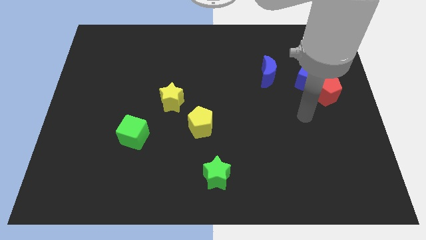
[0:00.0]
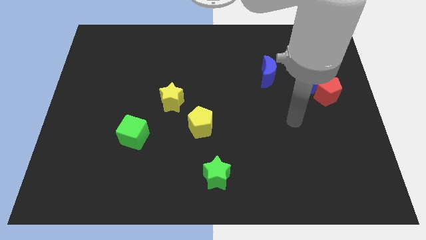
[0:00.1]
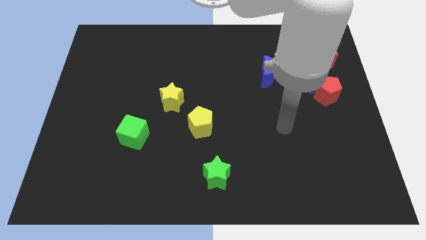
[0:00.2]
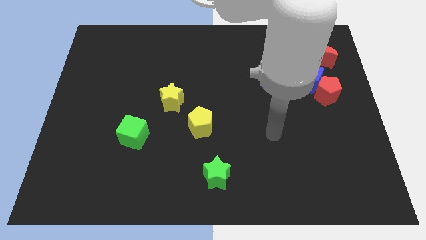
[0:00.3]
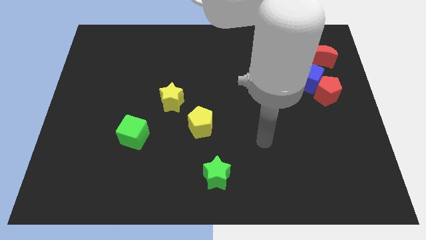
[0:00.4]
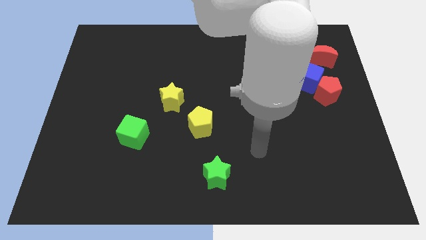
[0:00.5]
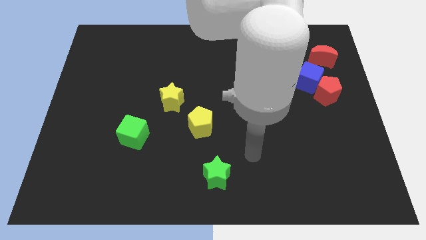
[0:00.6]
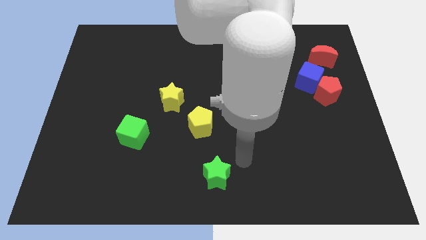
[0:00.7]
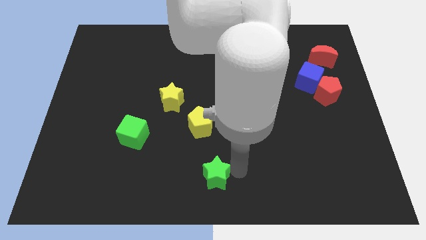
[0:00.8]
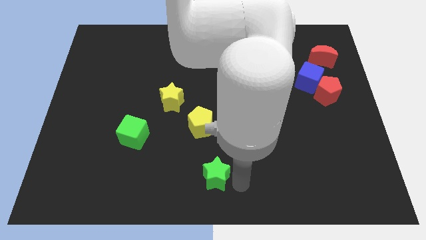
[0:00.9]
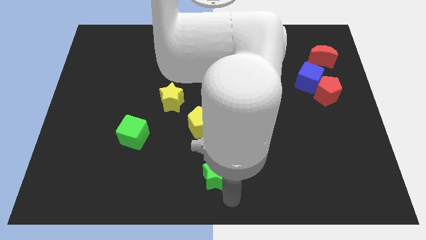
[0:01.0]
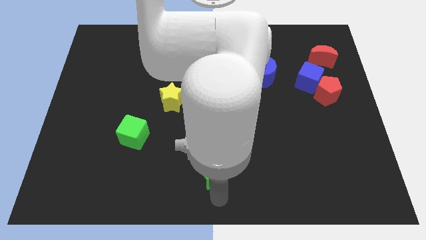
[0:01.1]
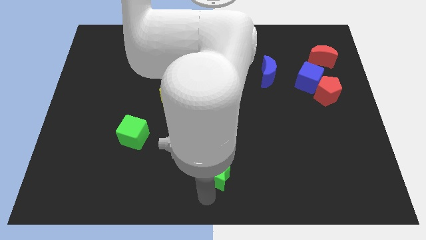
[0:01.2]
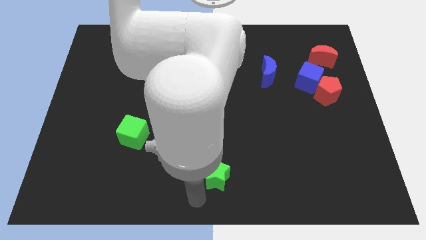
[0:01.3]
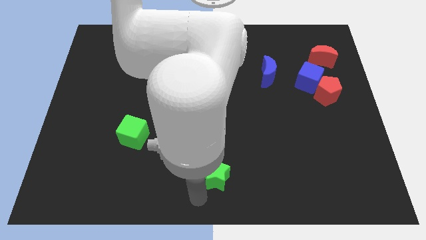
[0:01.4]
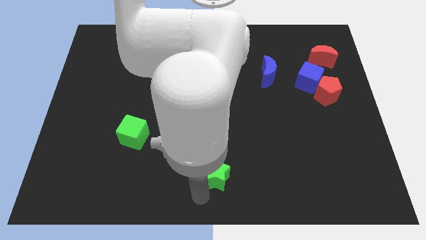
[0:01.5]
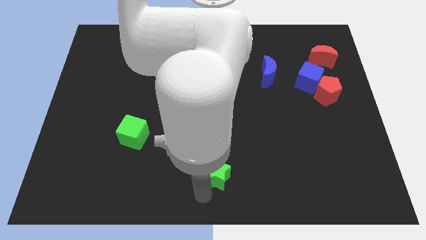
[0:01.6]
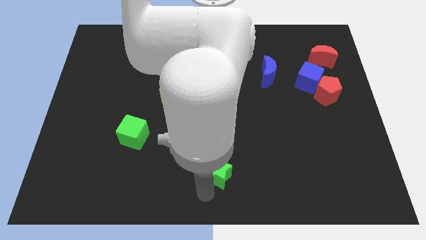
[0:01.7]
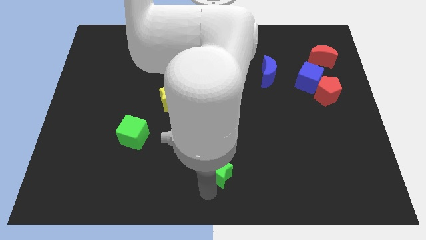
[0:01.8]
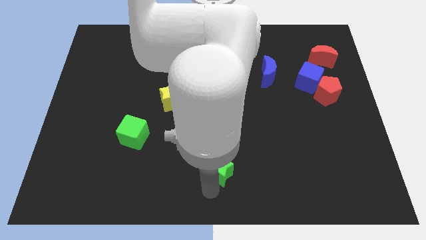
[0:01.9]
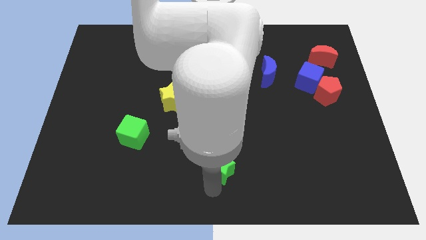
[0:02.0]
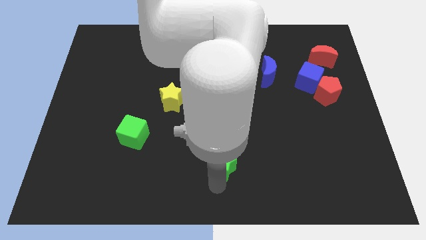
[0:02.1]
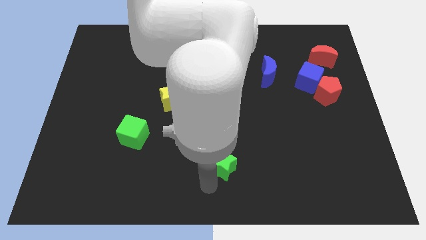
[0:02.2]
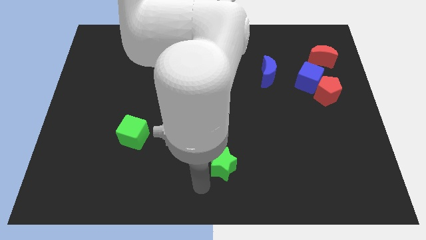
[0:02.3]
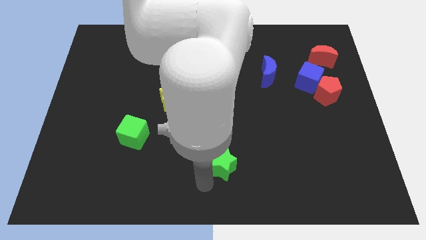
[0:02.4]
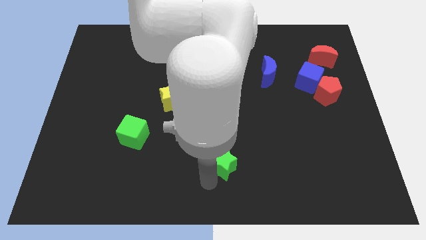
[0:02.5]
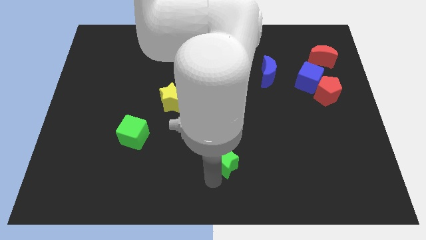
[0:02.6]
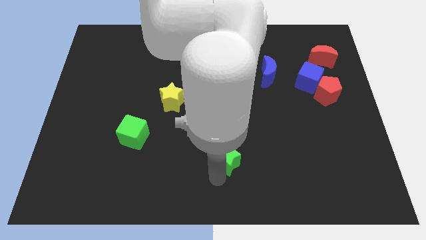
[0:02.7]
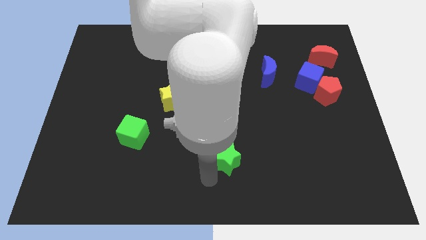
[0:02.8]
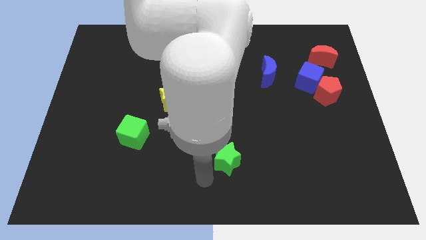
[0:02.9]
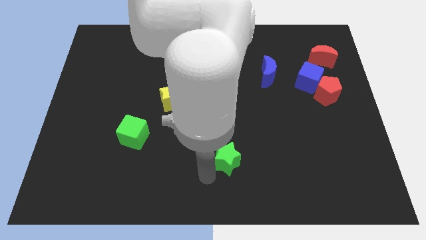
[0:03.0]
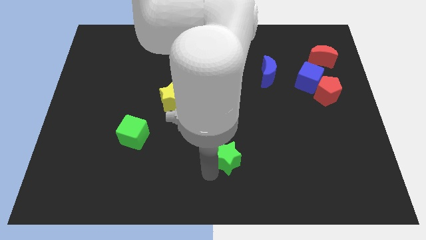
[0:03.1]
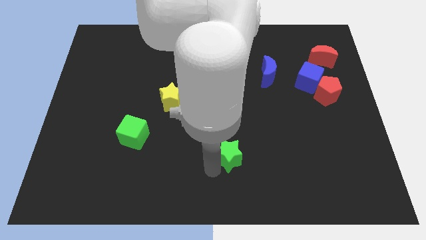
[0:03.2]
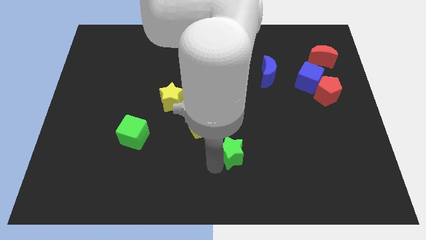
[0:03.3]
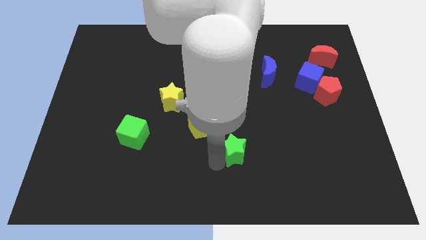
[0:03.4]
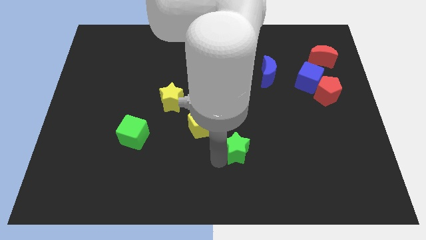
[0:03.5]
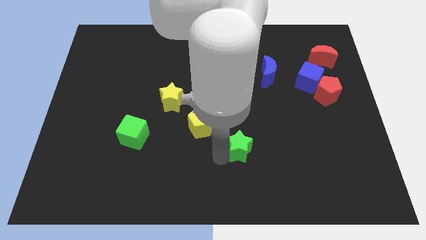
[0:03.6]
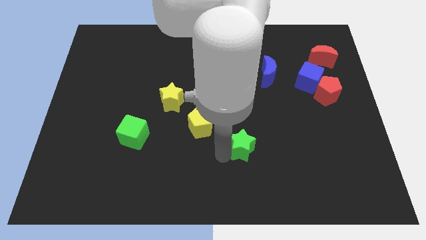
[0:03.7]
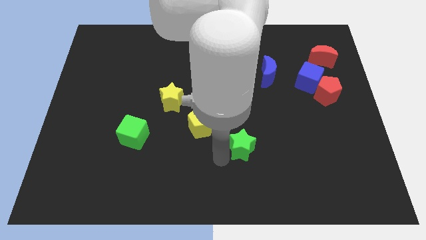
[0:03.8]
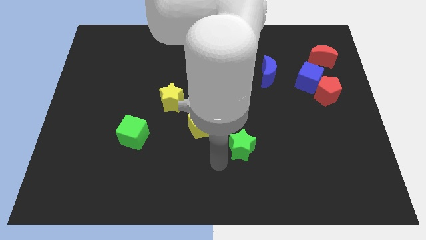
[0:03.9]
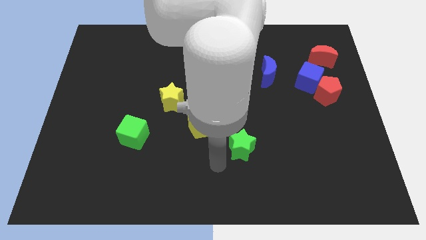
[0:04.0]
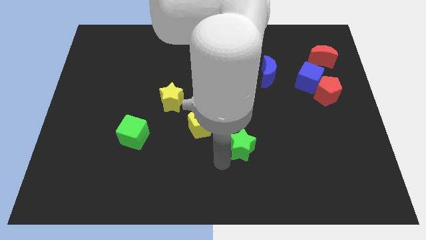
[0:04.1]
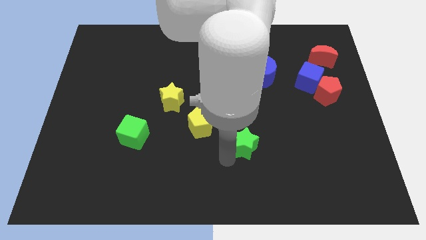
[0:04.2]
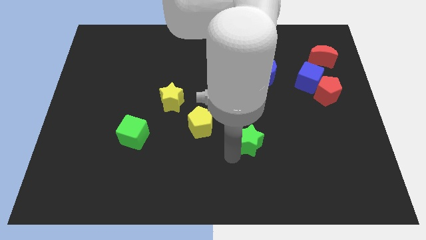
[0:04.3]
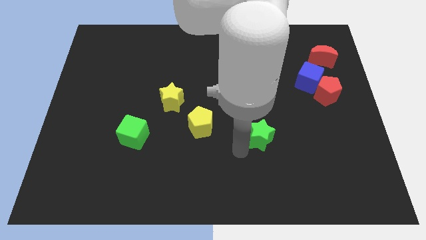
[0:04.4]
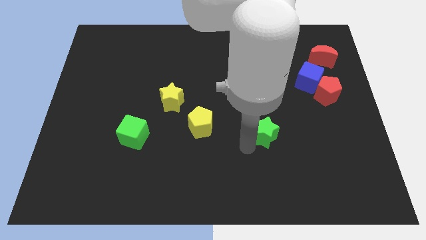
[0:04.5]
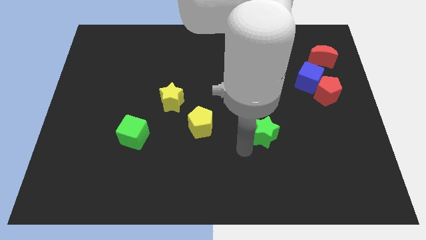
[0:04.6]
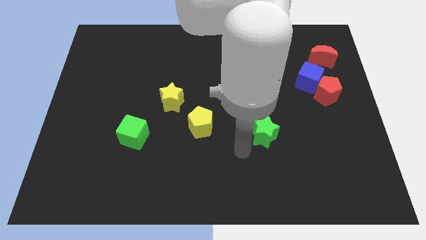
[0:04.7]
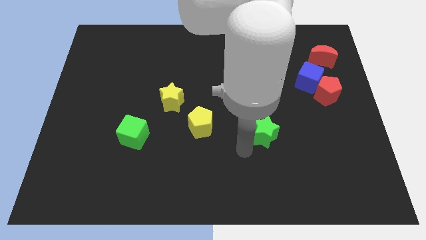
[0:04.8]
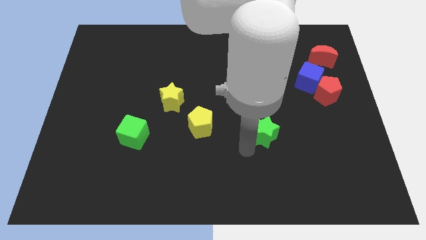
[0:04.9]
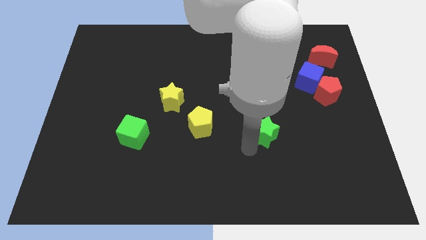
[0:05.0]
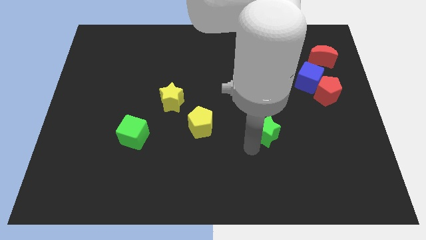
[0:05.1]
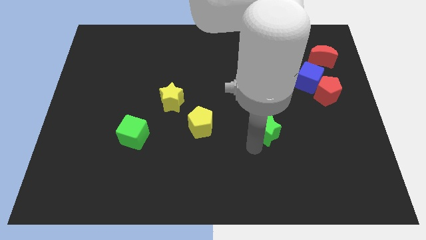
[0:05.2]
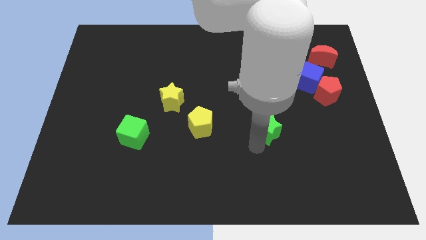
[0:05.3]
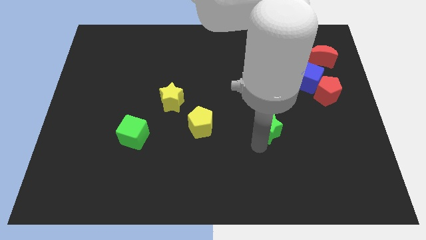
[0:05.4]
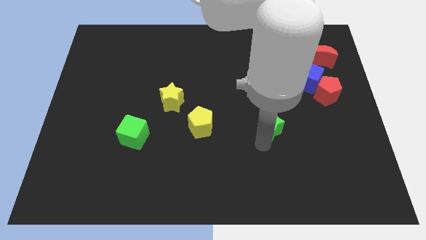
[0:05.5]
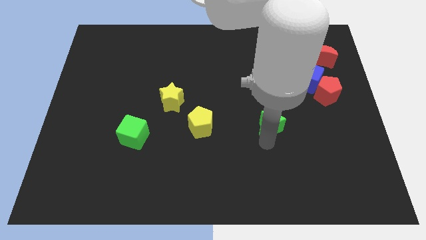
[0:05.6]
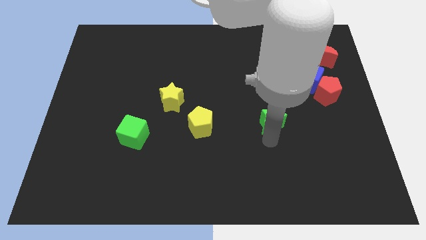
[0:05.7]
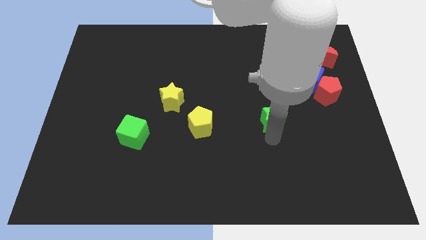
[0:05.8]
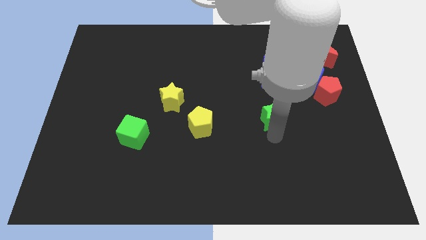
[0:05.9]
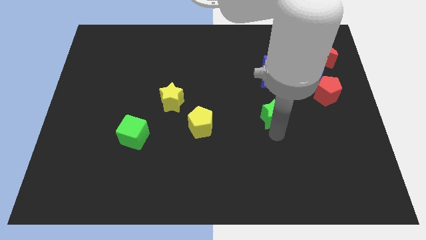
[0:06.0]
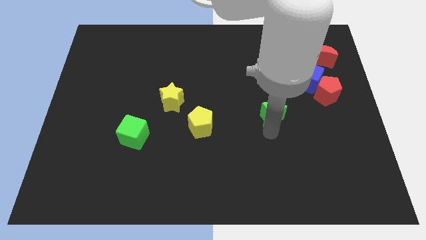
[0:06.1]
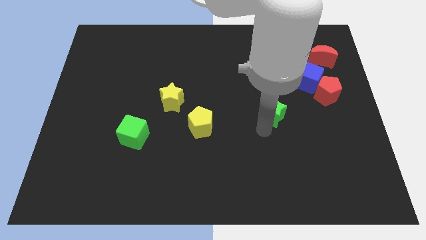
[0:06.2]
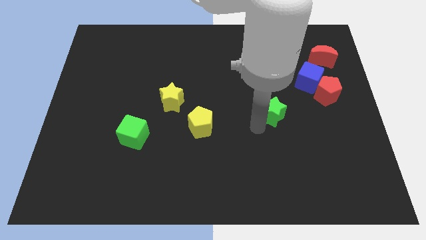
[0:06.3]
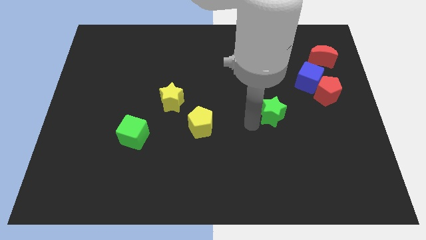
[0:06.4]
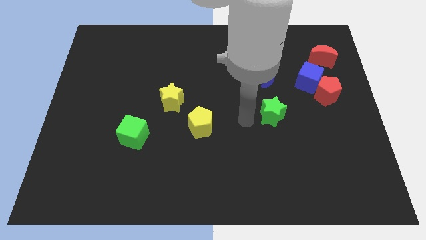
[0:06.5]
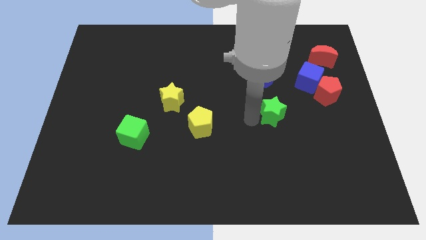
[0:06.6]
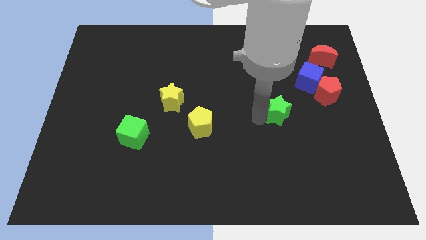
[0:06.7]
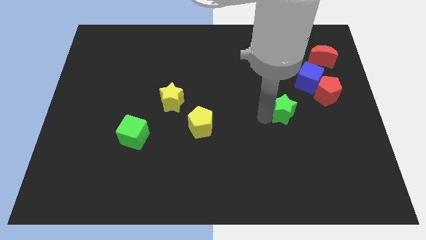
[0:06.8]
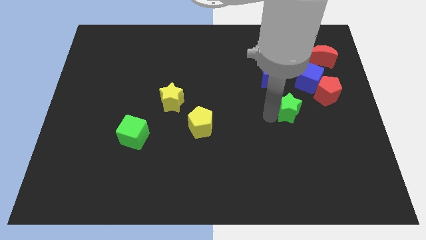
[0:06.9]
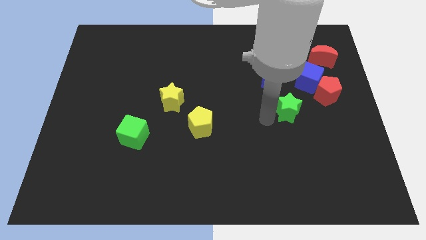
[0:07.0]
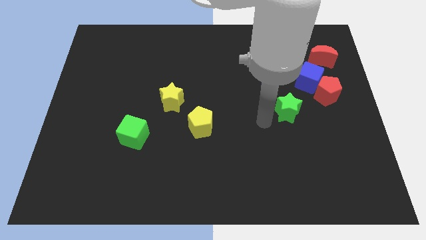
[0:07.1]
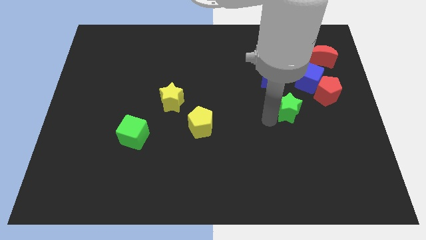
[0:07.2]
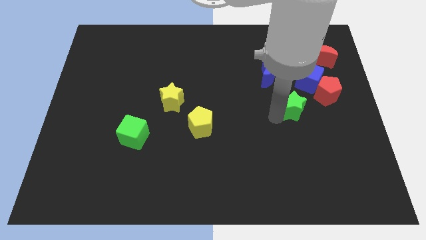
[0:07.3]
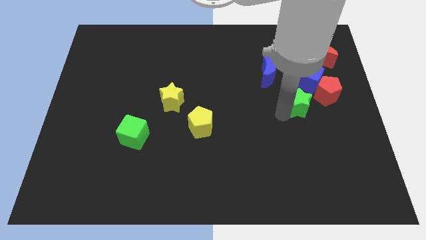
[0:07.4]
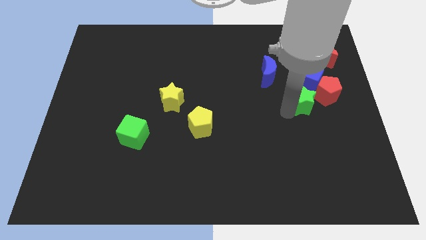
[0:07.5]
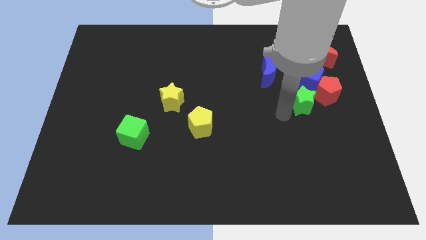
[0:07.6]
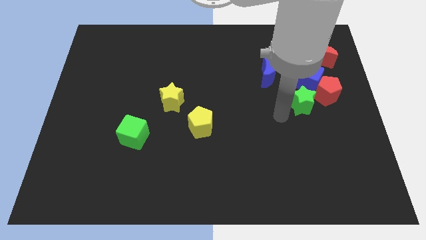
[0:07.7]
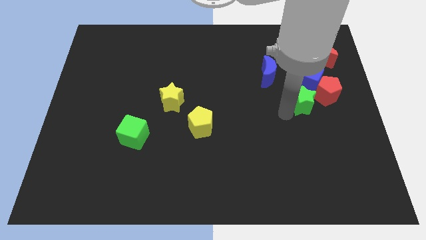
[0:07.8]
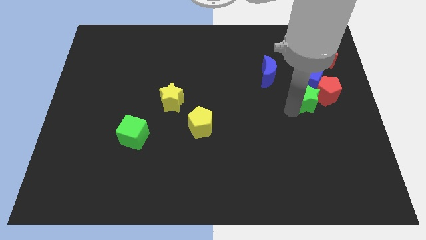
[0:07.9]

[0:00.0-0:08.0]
move the green star towards the red pentagon
